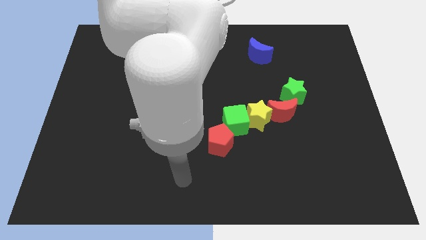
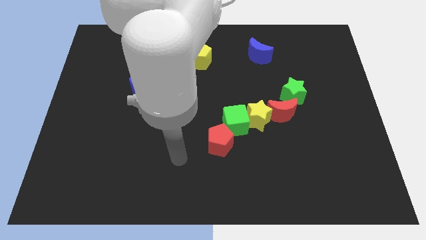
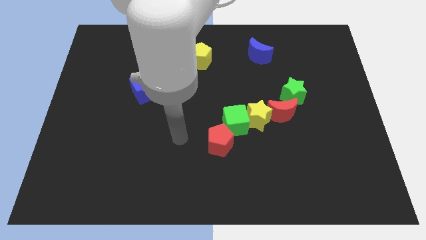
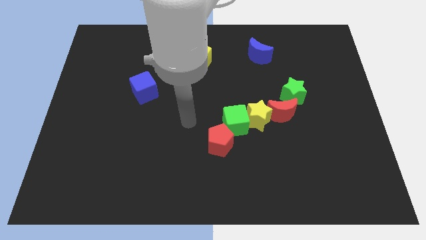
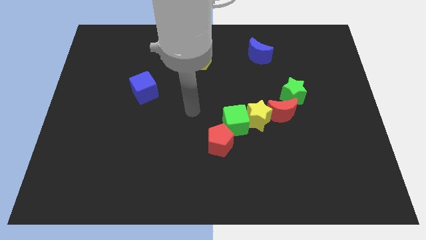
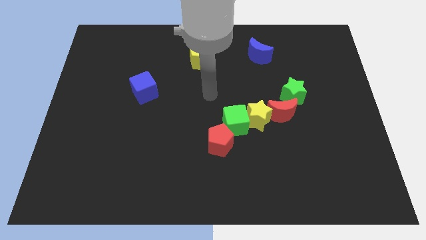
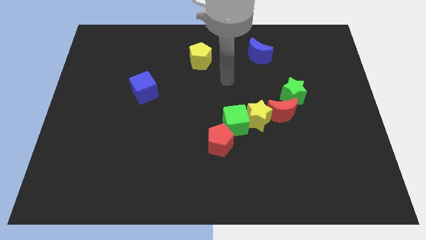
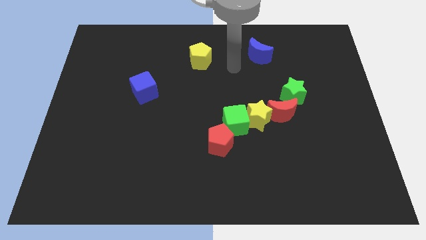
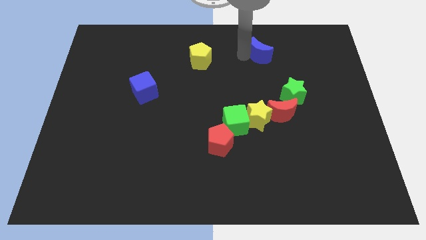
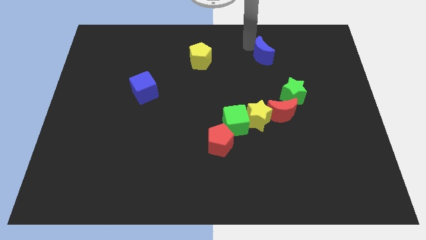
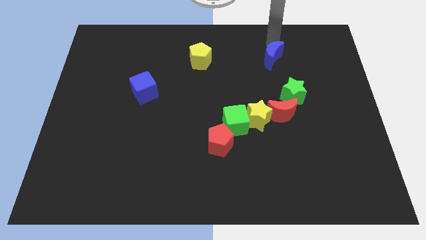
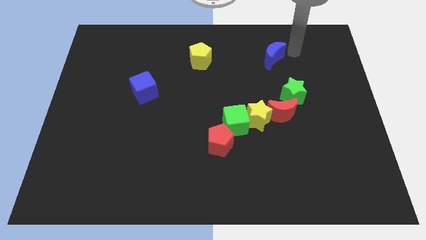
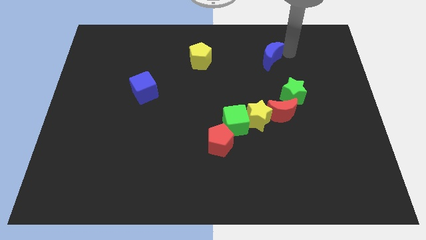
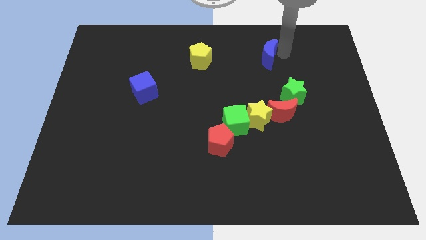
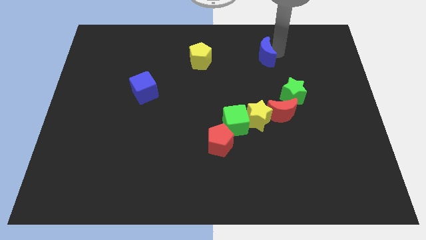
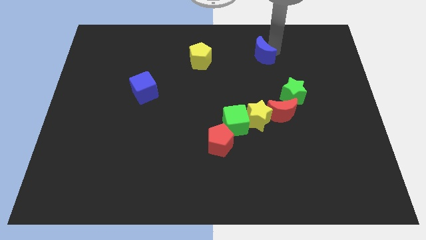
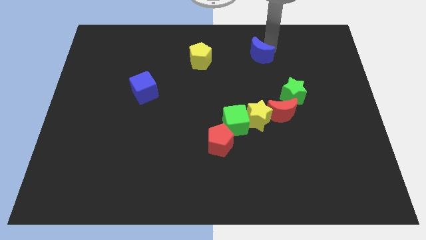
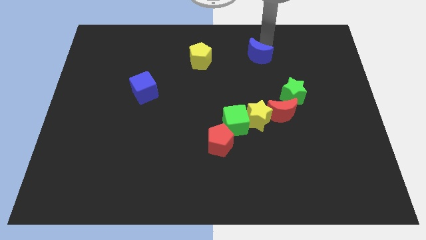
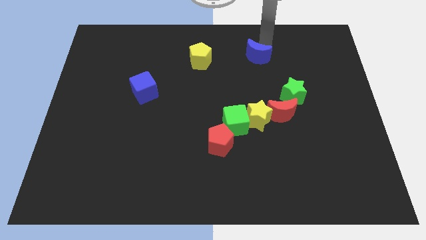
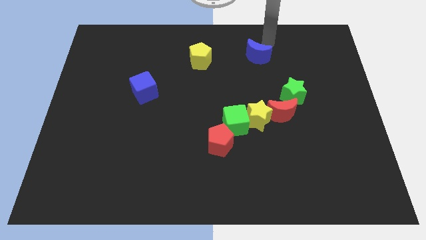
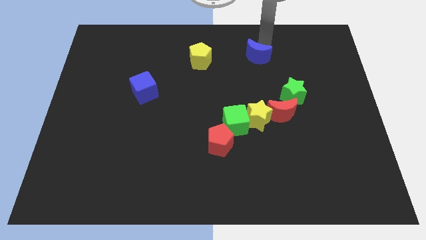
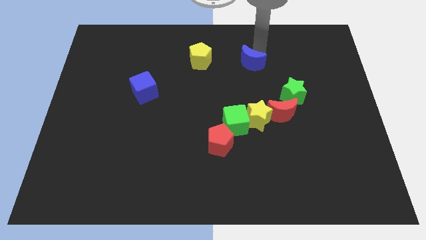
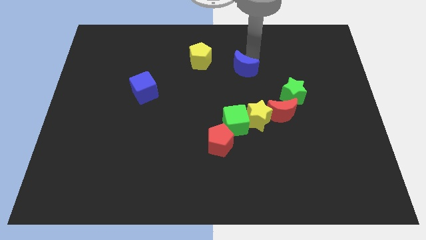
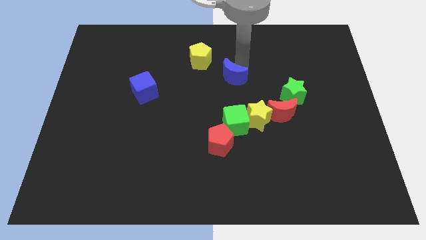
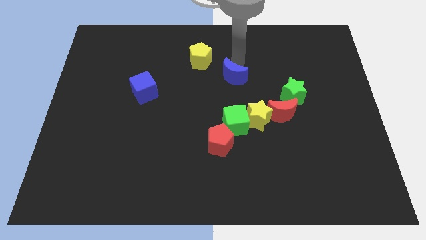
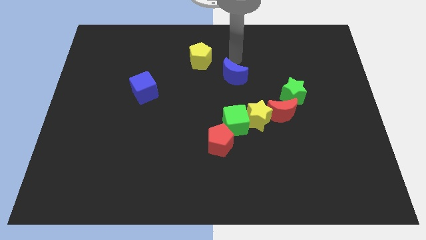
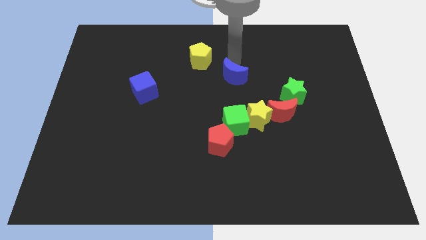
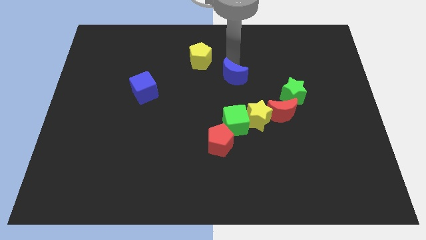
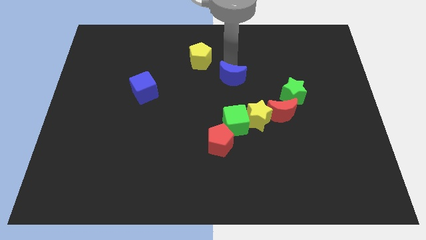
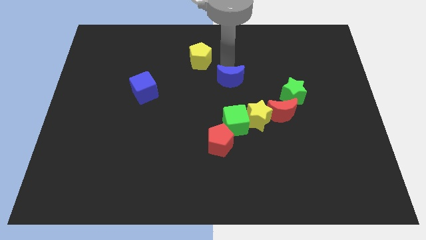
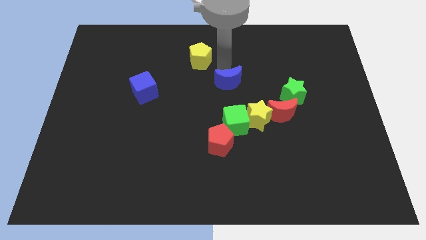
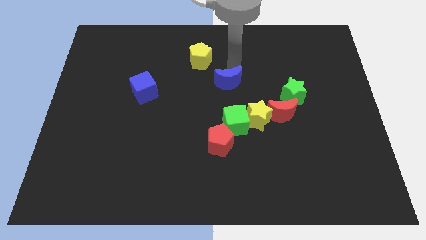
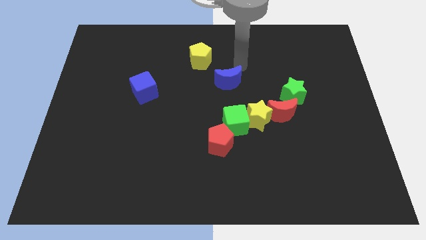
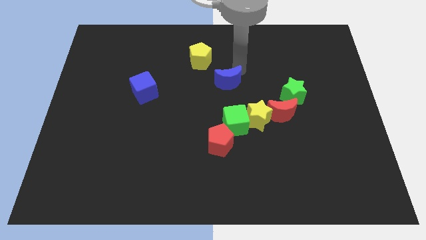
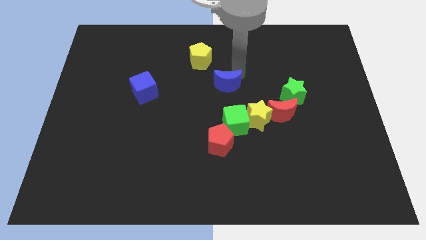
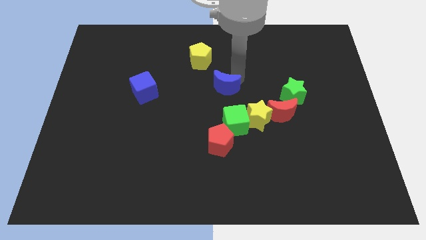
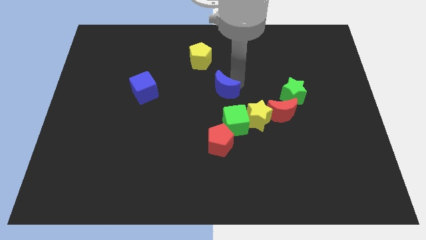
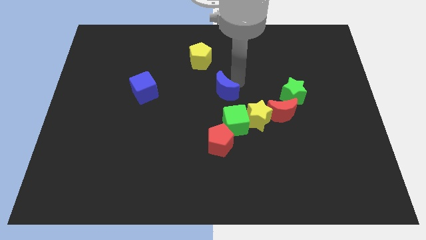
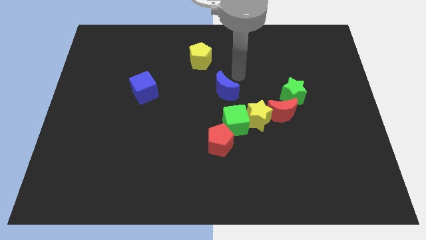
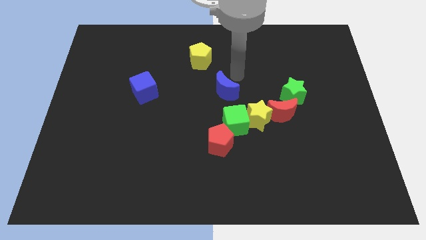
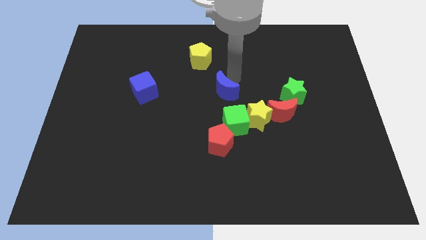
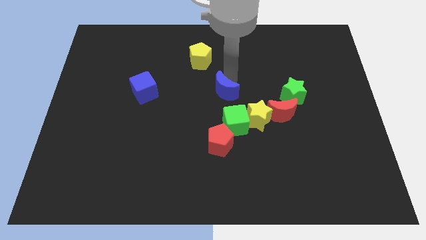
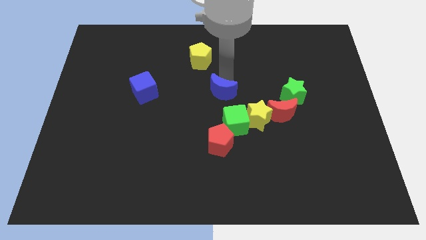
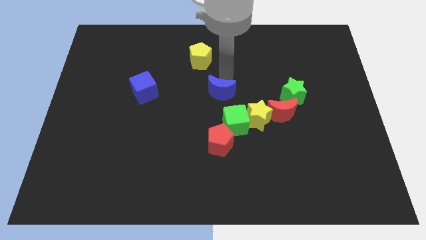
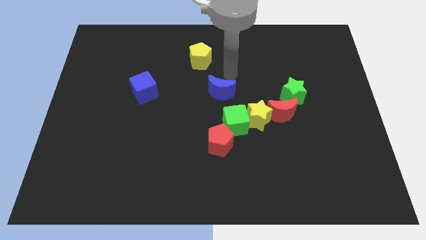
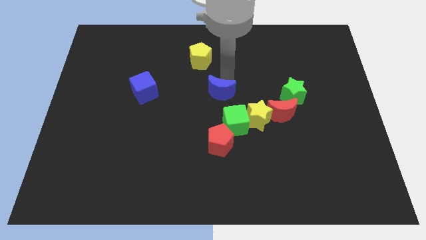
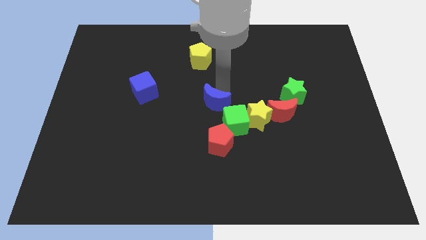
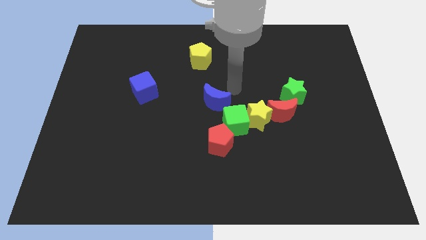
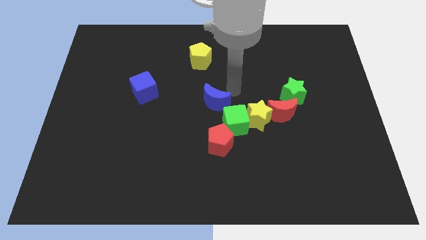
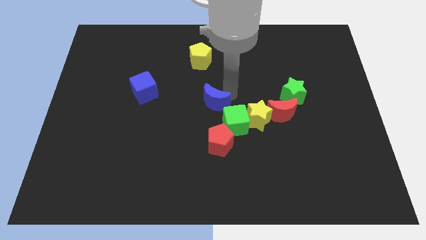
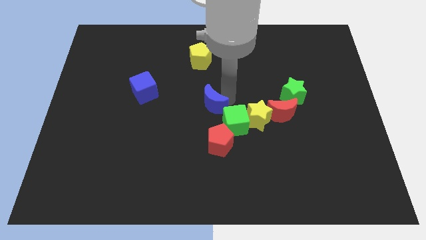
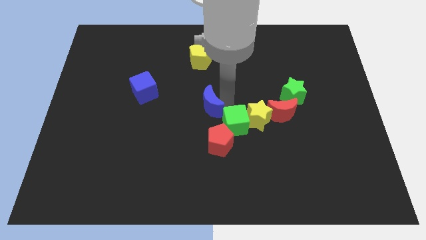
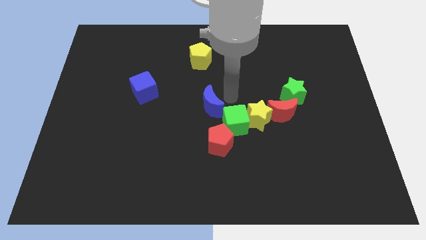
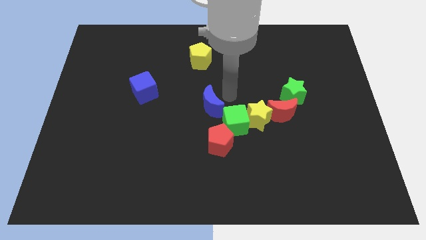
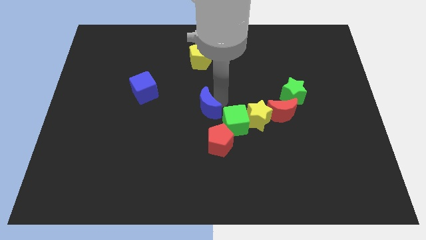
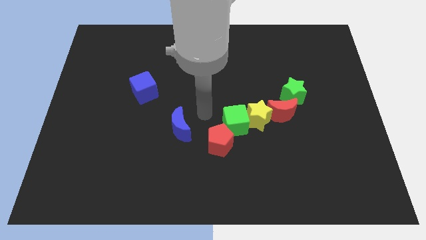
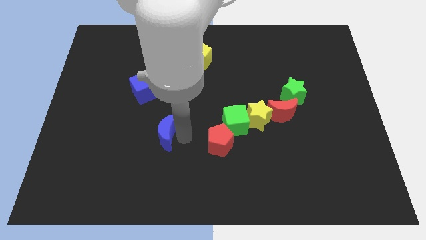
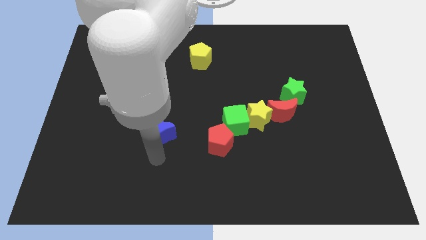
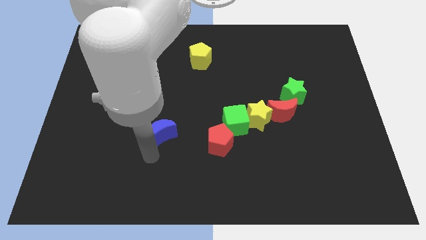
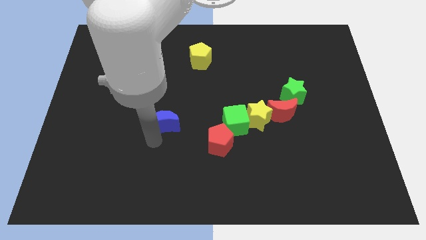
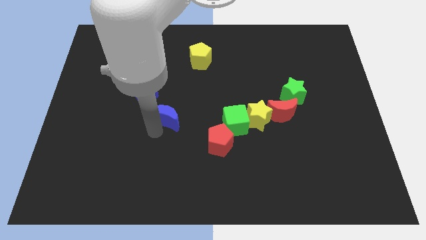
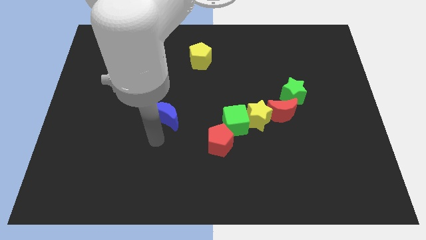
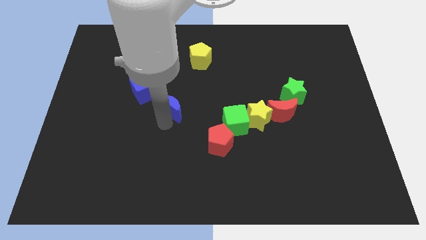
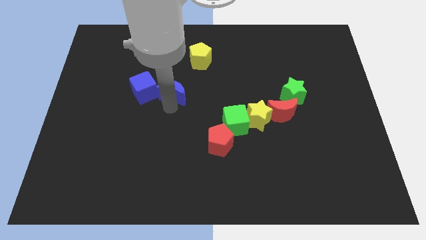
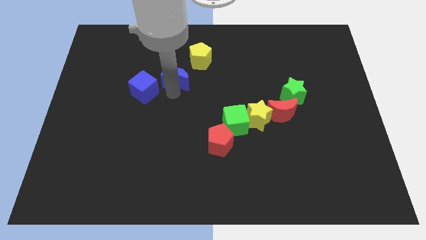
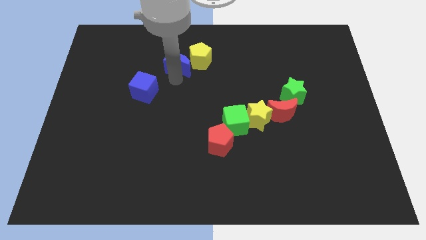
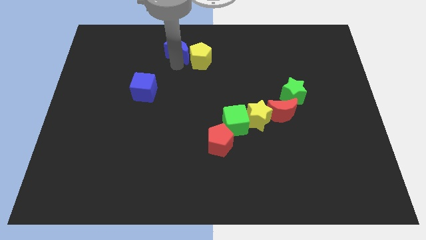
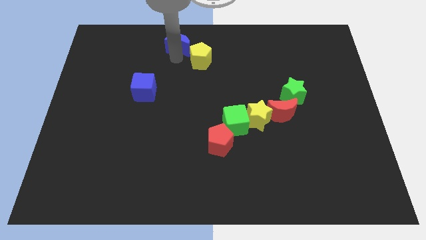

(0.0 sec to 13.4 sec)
slide the blue moon to the towards your base
